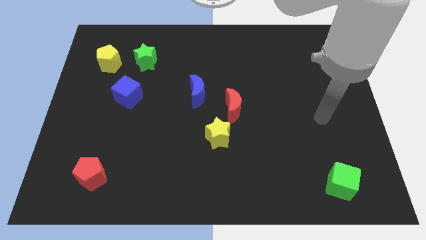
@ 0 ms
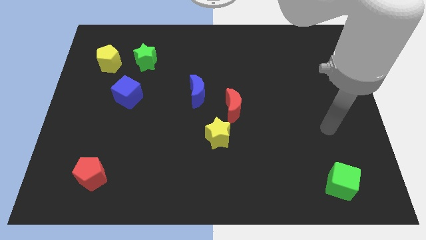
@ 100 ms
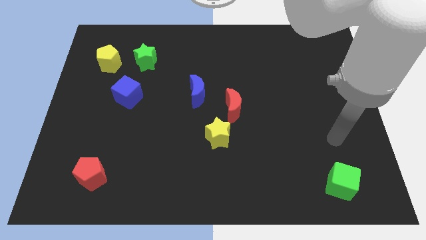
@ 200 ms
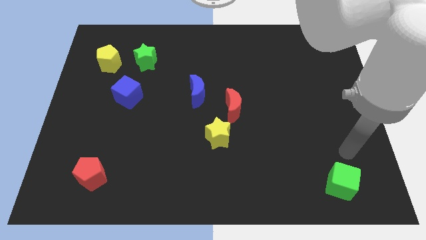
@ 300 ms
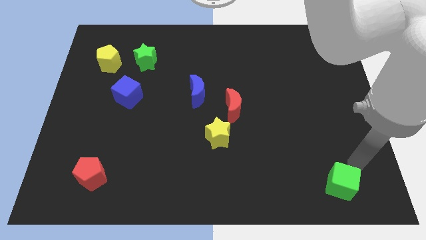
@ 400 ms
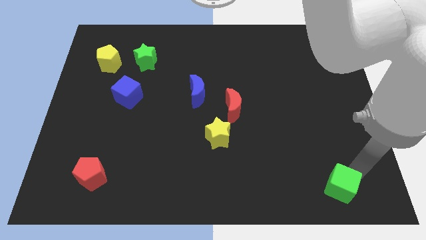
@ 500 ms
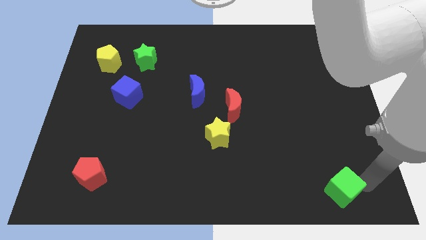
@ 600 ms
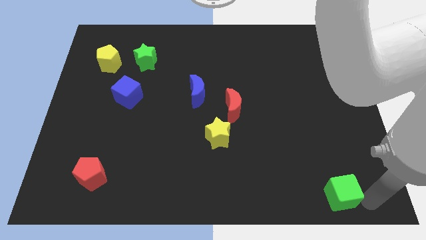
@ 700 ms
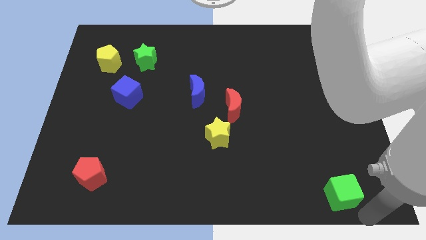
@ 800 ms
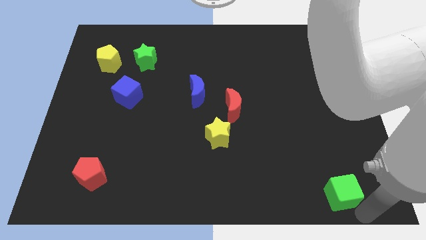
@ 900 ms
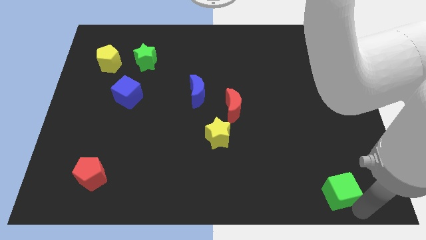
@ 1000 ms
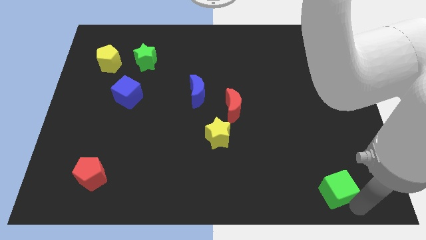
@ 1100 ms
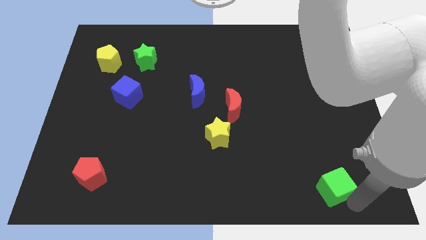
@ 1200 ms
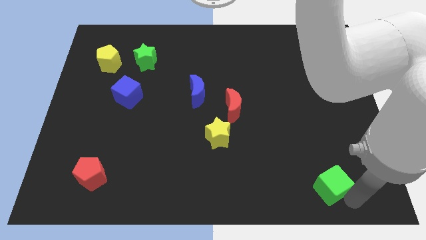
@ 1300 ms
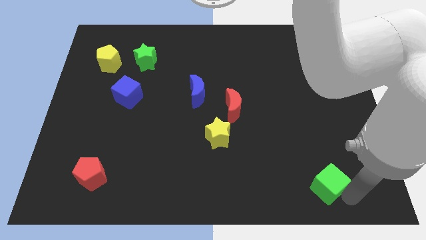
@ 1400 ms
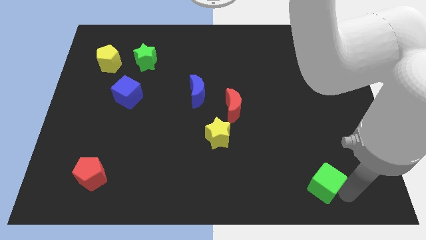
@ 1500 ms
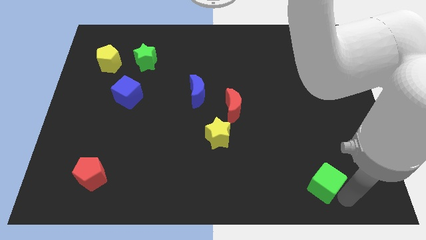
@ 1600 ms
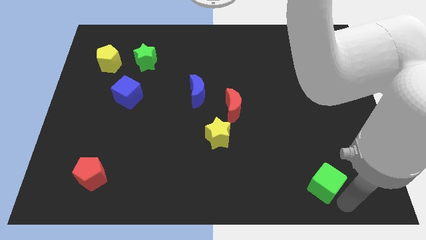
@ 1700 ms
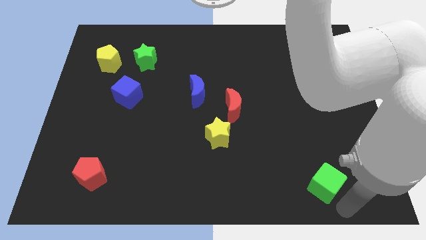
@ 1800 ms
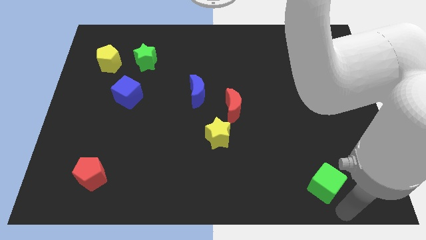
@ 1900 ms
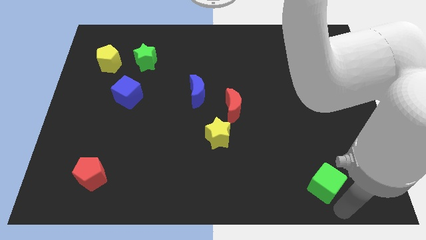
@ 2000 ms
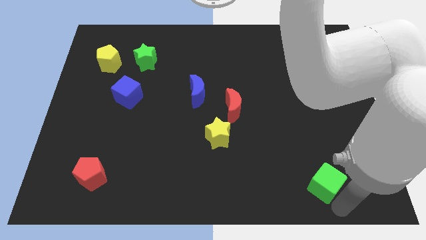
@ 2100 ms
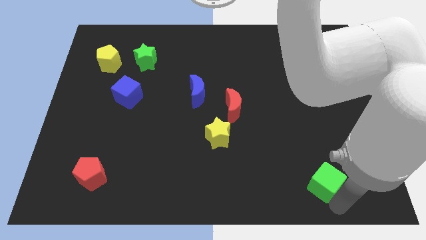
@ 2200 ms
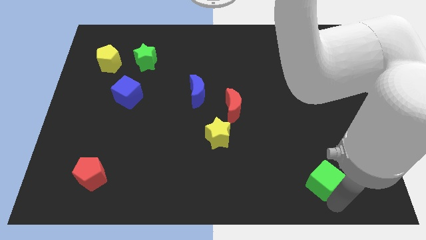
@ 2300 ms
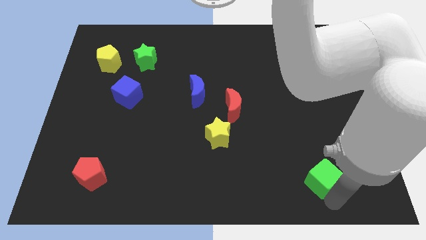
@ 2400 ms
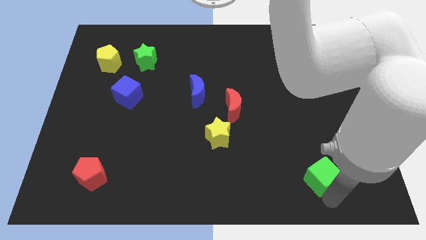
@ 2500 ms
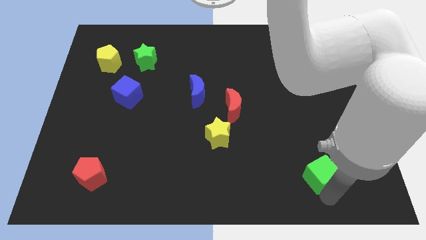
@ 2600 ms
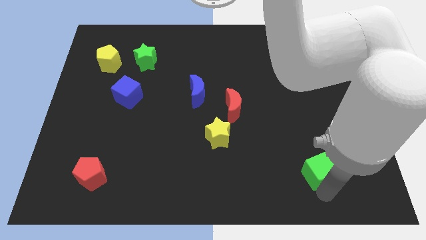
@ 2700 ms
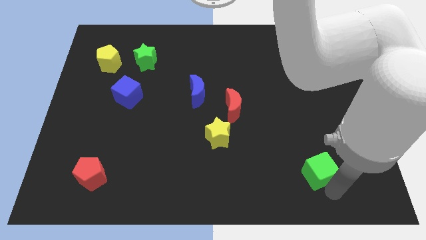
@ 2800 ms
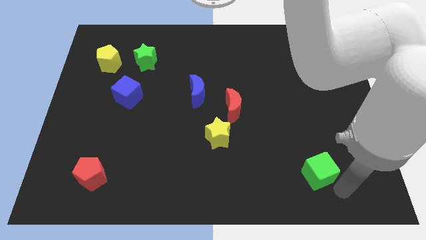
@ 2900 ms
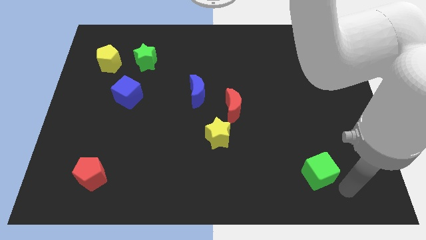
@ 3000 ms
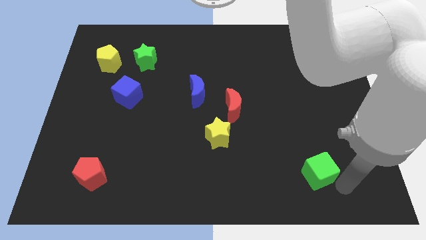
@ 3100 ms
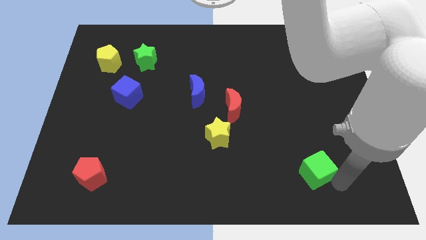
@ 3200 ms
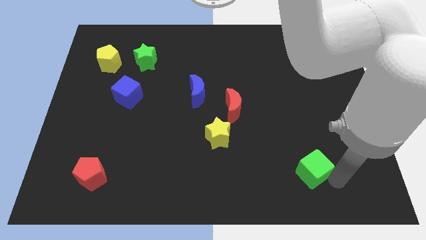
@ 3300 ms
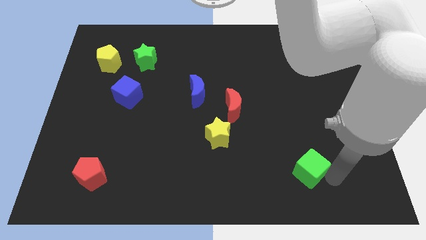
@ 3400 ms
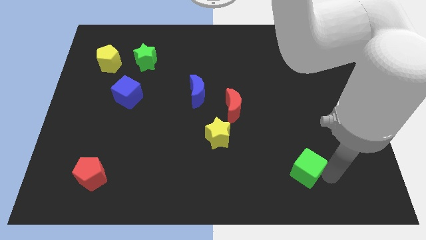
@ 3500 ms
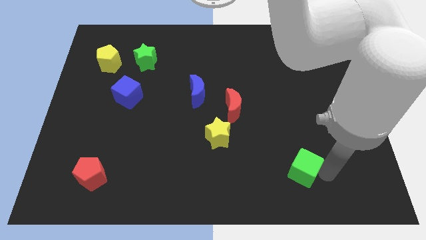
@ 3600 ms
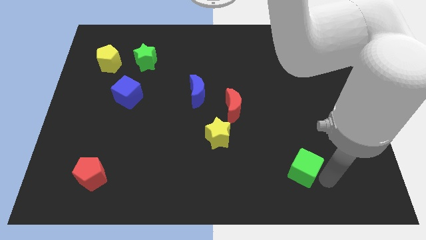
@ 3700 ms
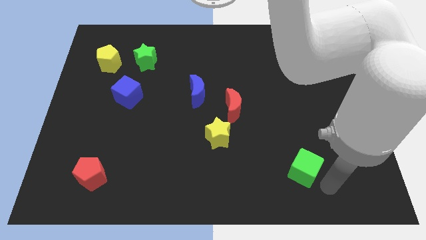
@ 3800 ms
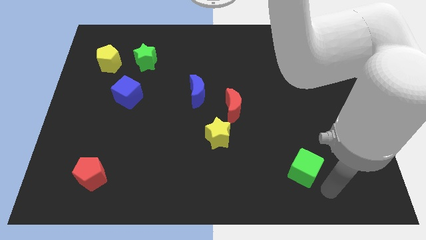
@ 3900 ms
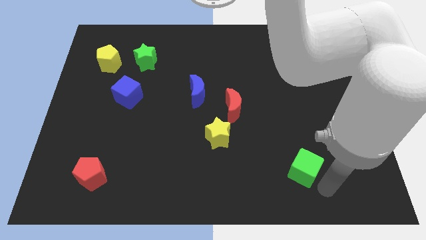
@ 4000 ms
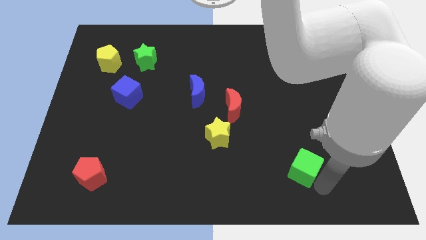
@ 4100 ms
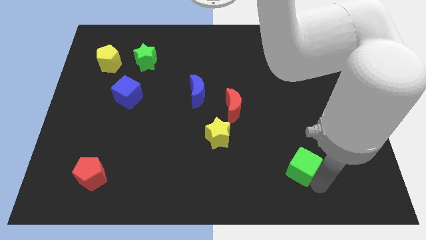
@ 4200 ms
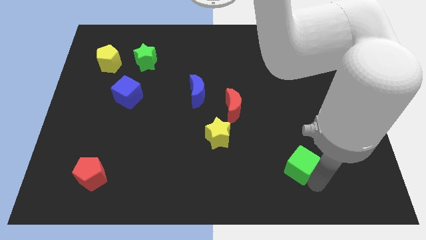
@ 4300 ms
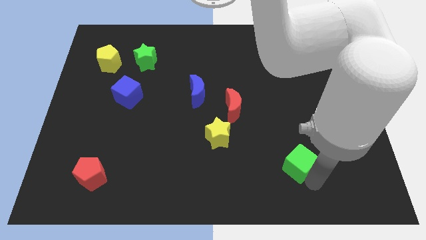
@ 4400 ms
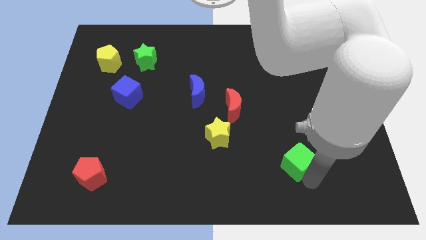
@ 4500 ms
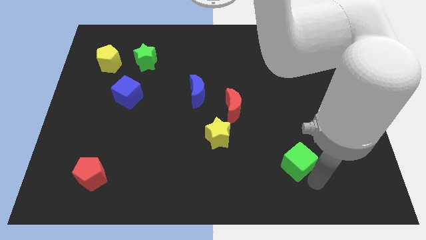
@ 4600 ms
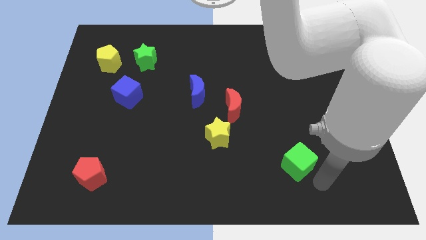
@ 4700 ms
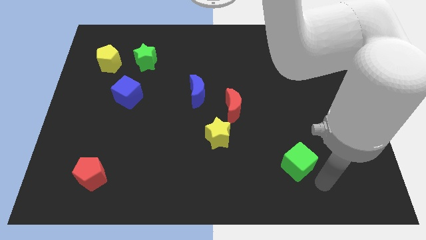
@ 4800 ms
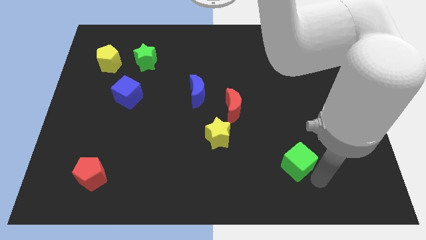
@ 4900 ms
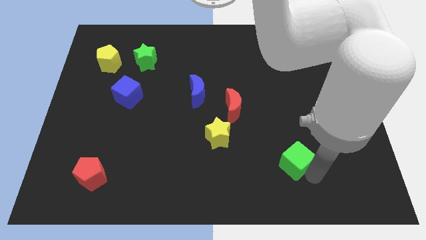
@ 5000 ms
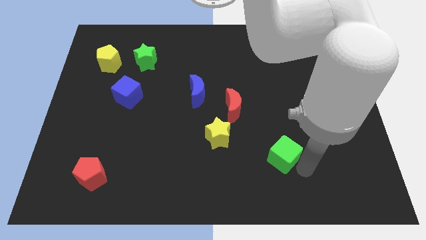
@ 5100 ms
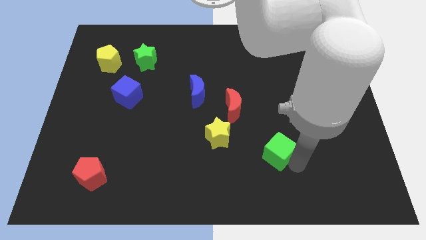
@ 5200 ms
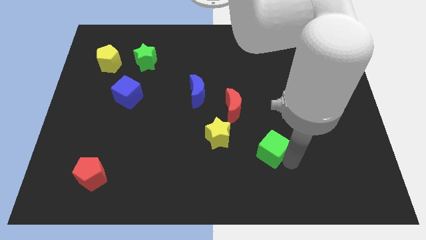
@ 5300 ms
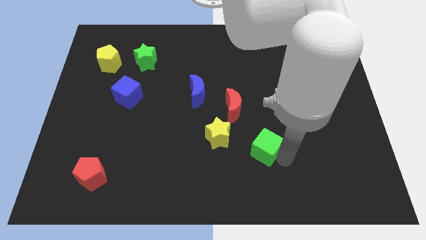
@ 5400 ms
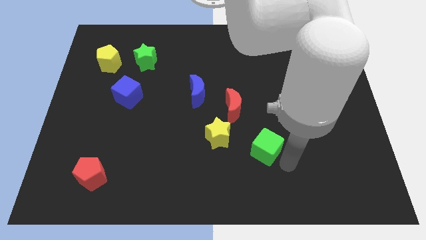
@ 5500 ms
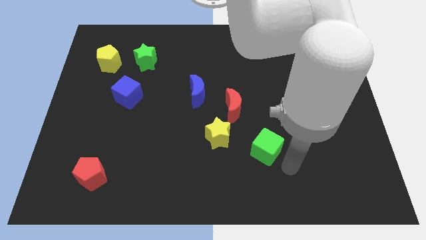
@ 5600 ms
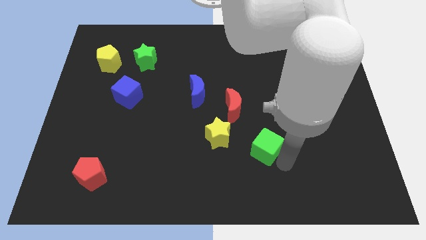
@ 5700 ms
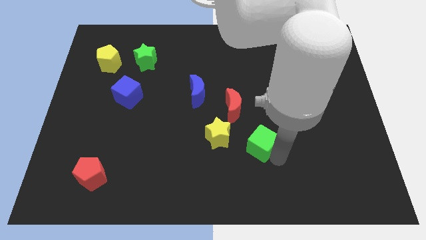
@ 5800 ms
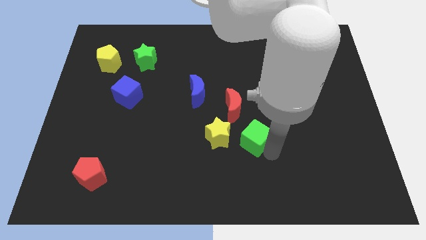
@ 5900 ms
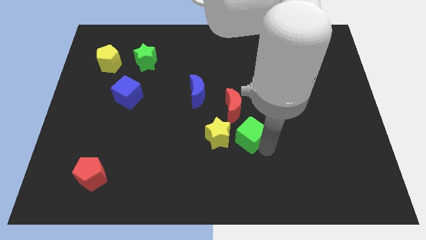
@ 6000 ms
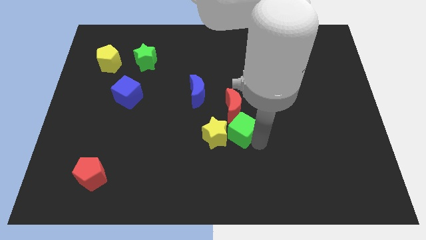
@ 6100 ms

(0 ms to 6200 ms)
push the green cube to the center
